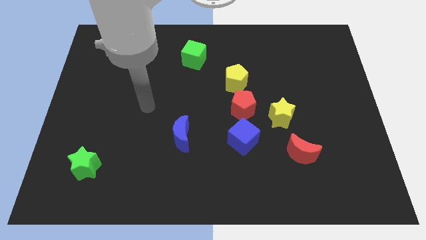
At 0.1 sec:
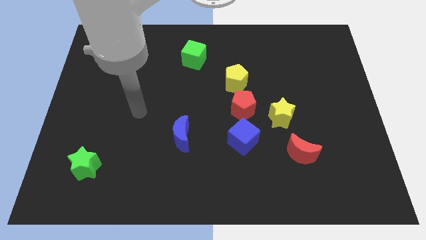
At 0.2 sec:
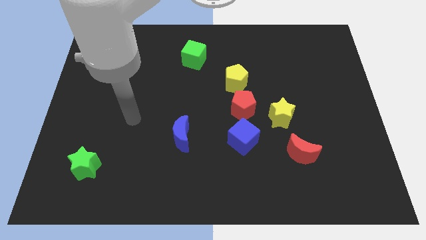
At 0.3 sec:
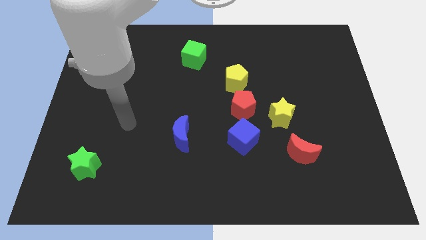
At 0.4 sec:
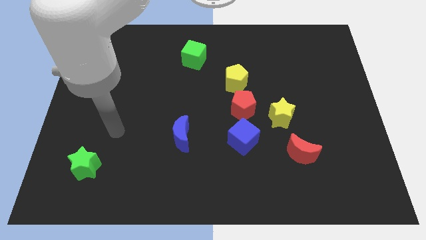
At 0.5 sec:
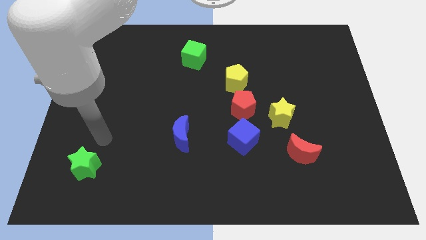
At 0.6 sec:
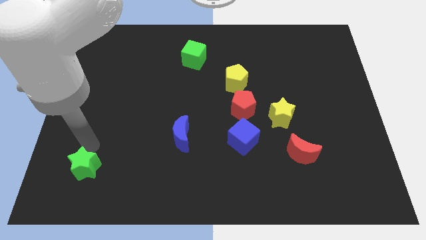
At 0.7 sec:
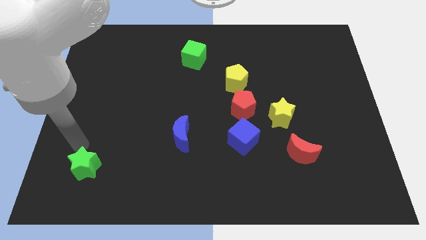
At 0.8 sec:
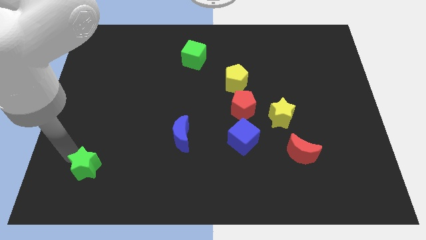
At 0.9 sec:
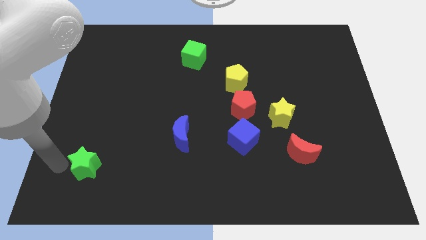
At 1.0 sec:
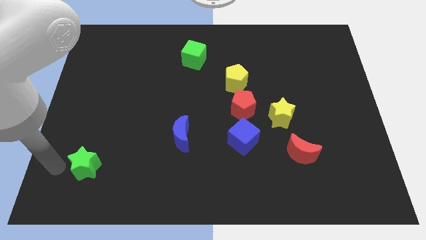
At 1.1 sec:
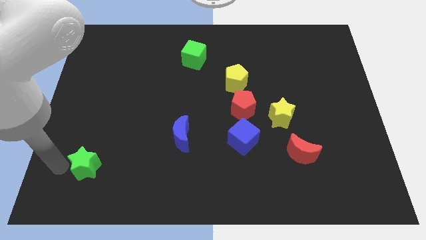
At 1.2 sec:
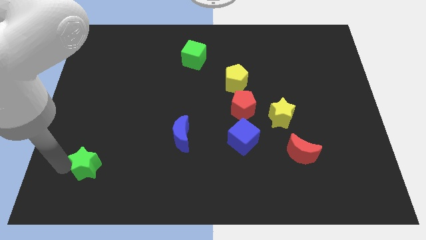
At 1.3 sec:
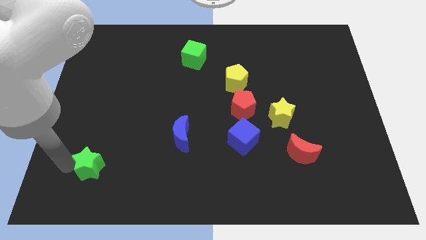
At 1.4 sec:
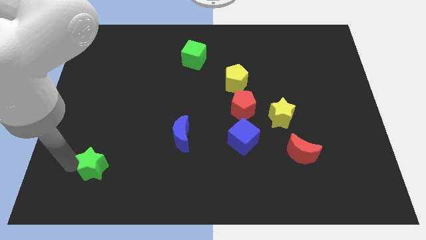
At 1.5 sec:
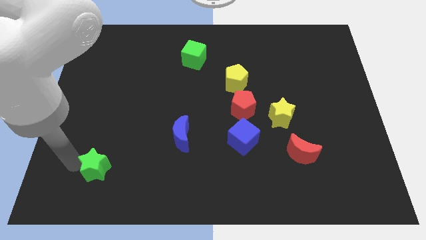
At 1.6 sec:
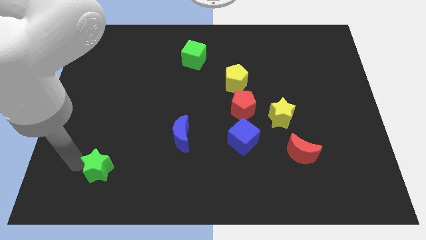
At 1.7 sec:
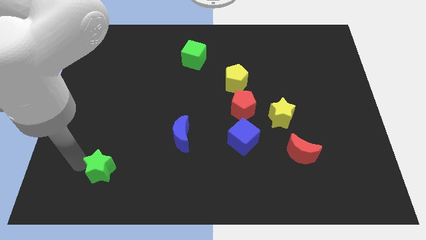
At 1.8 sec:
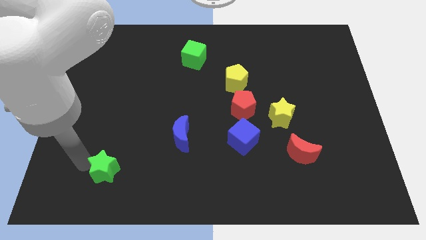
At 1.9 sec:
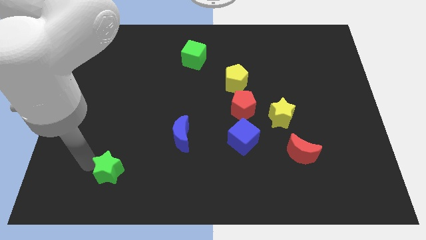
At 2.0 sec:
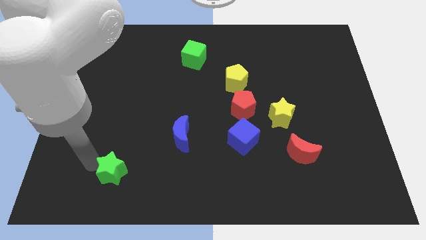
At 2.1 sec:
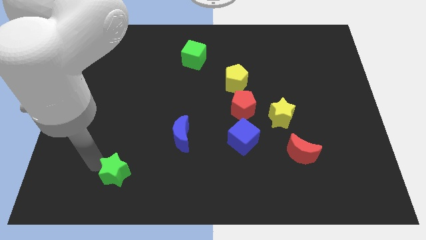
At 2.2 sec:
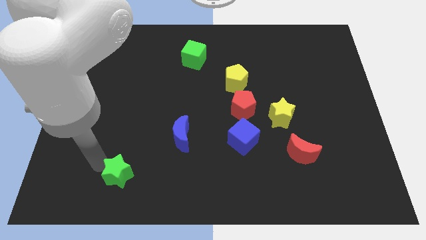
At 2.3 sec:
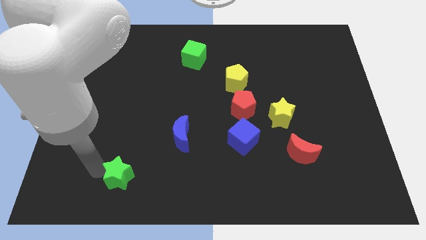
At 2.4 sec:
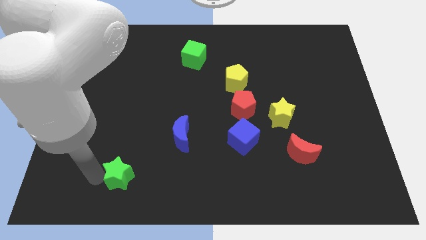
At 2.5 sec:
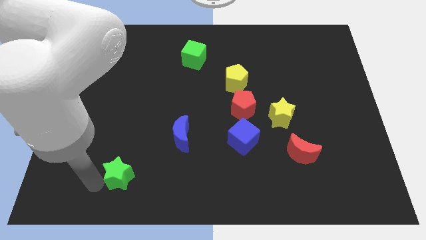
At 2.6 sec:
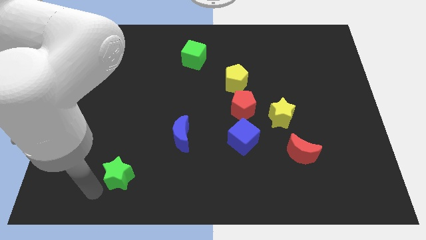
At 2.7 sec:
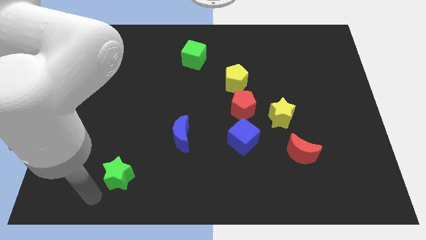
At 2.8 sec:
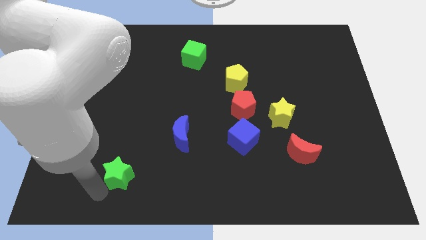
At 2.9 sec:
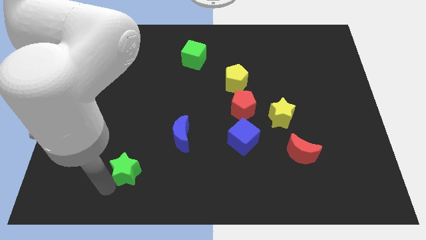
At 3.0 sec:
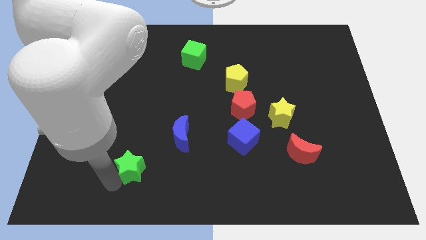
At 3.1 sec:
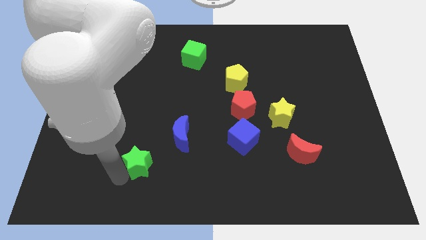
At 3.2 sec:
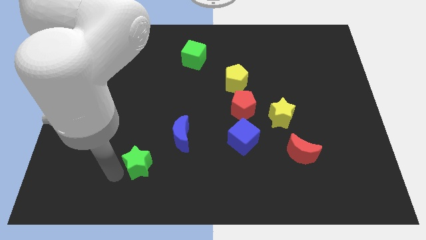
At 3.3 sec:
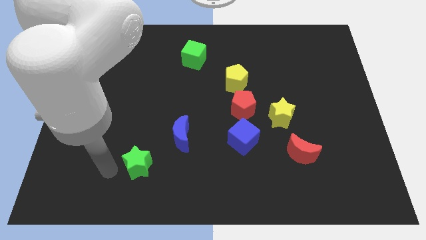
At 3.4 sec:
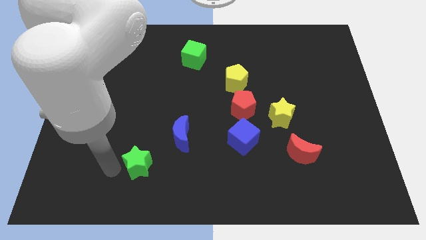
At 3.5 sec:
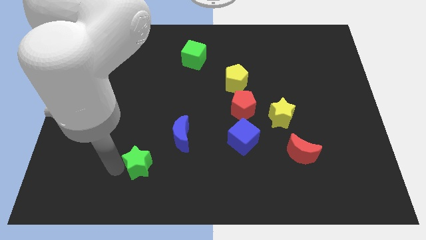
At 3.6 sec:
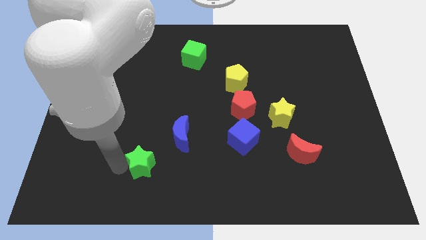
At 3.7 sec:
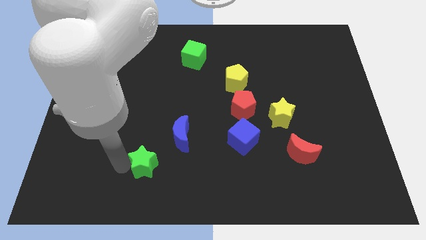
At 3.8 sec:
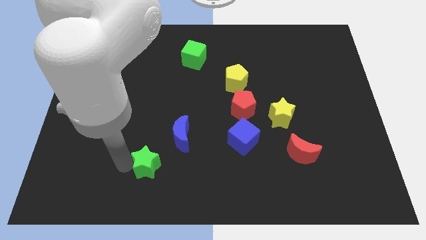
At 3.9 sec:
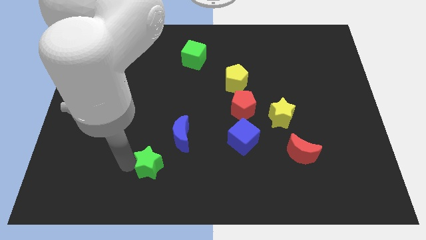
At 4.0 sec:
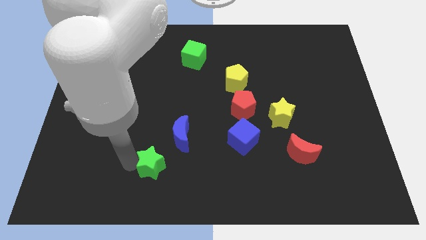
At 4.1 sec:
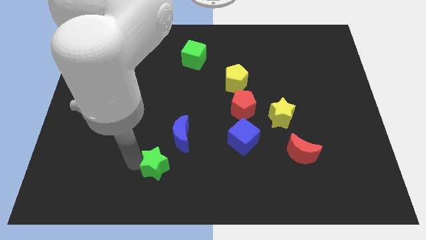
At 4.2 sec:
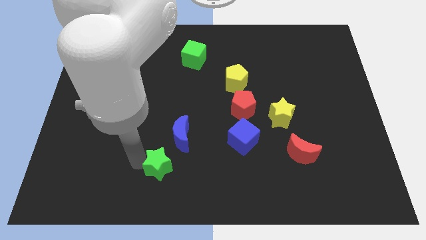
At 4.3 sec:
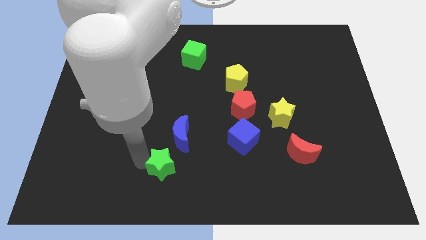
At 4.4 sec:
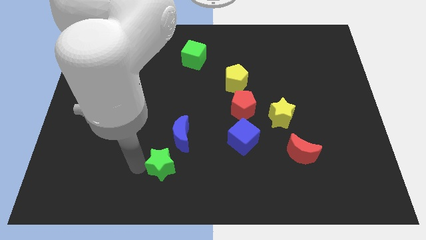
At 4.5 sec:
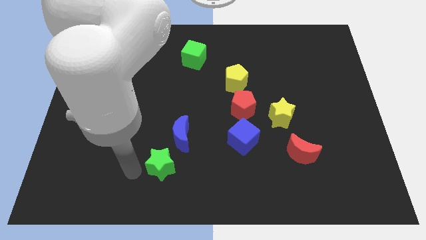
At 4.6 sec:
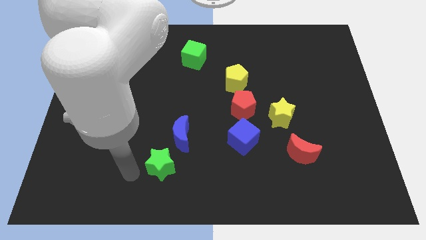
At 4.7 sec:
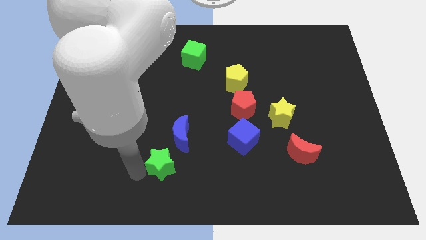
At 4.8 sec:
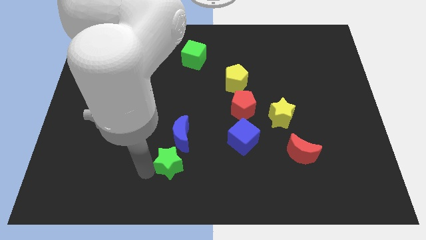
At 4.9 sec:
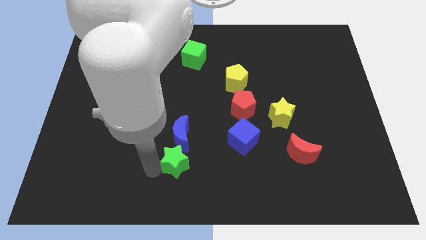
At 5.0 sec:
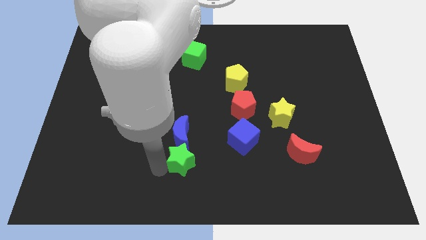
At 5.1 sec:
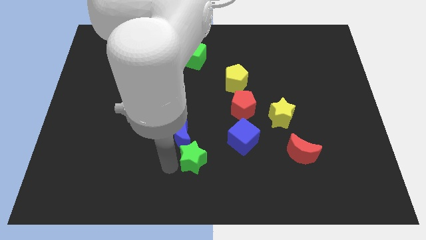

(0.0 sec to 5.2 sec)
slide the green star to the bottom left side of the blue cube

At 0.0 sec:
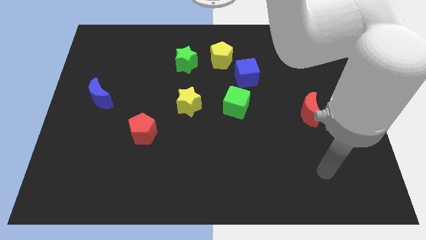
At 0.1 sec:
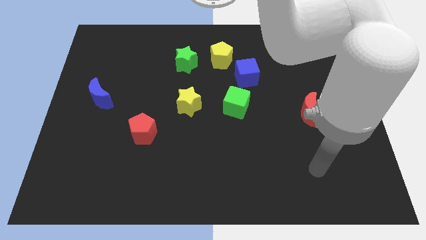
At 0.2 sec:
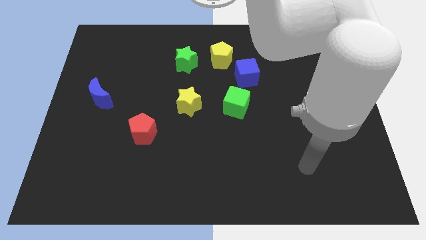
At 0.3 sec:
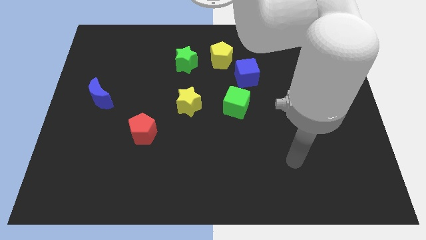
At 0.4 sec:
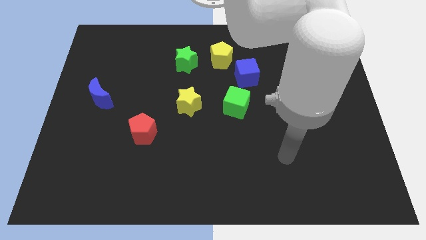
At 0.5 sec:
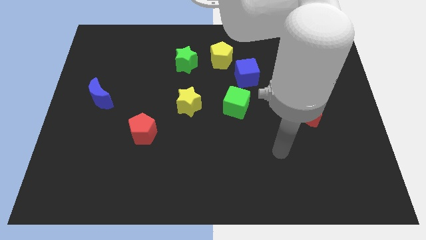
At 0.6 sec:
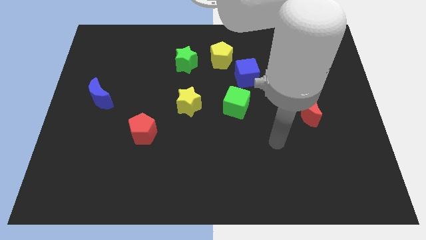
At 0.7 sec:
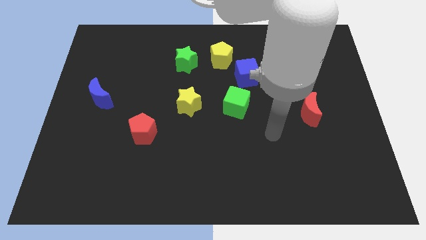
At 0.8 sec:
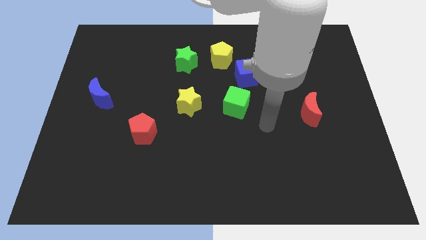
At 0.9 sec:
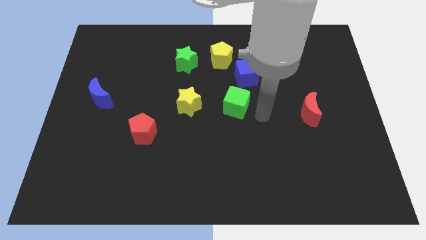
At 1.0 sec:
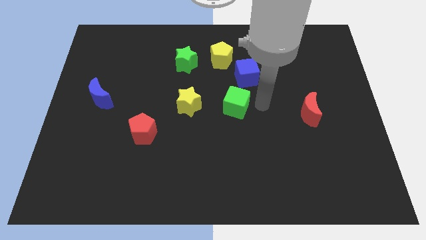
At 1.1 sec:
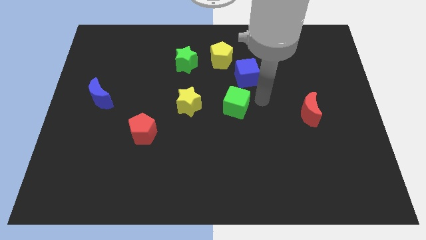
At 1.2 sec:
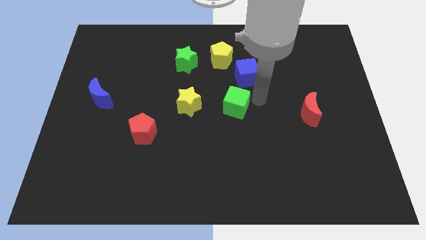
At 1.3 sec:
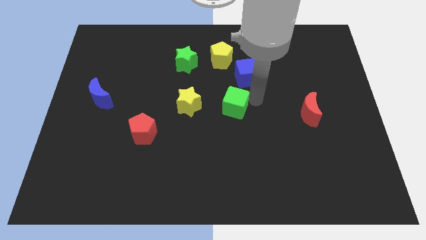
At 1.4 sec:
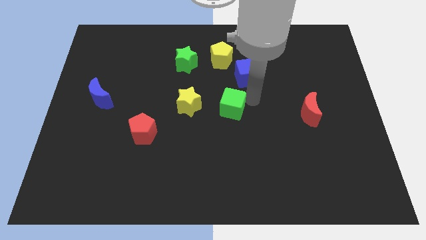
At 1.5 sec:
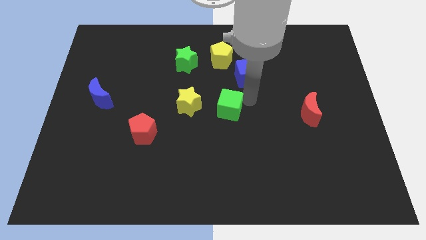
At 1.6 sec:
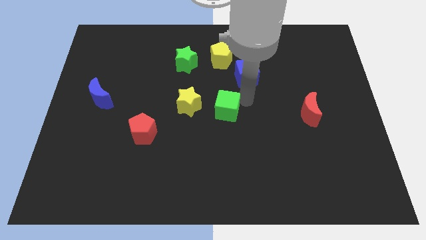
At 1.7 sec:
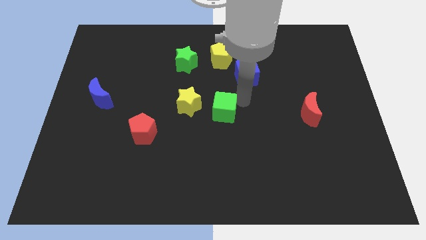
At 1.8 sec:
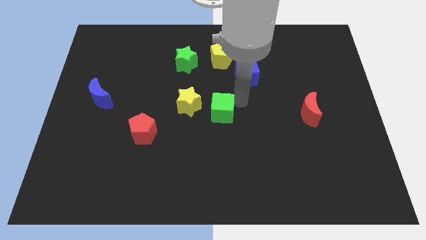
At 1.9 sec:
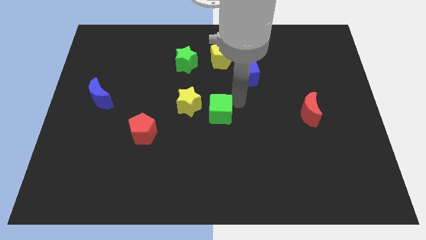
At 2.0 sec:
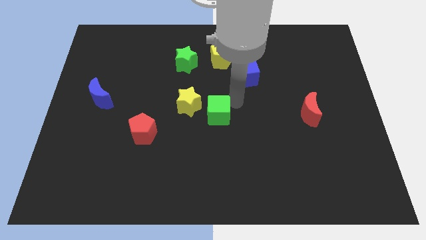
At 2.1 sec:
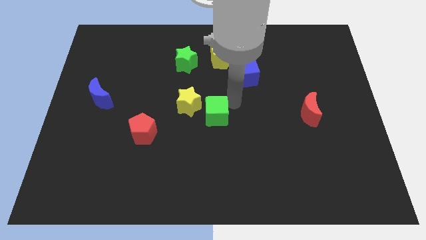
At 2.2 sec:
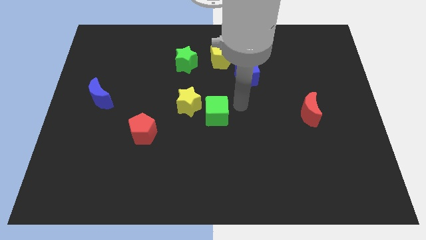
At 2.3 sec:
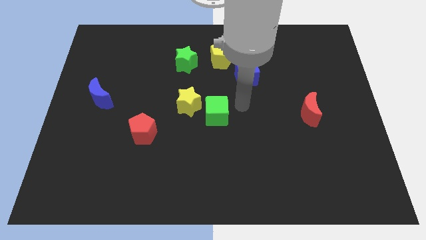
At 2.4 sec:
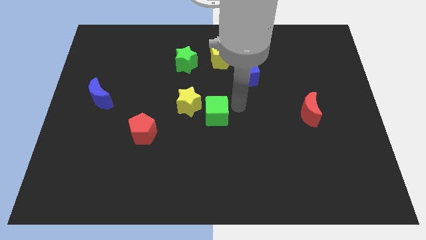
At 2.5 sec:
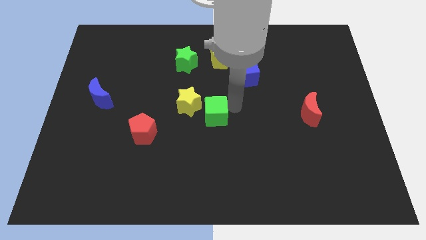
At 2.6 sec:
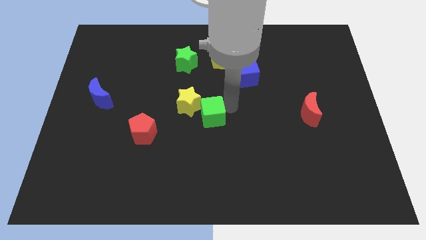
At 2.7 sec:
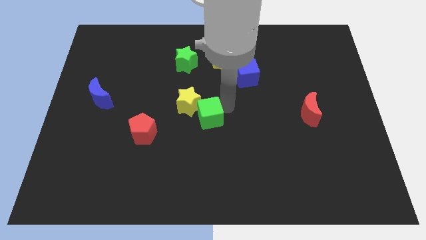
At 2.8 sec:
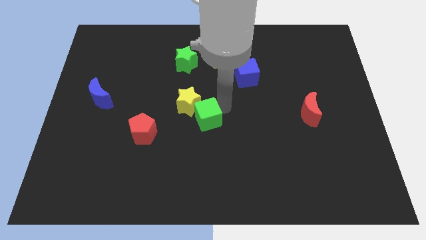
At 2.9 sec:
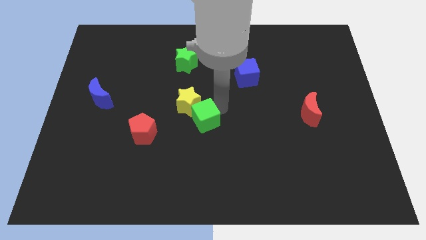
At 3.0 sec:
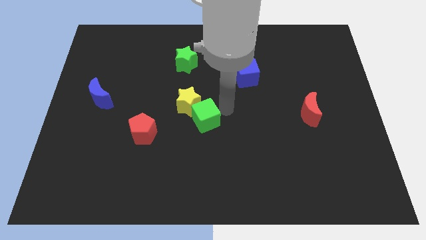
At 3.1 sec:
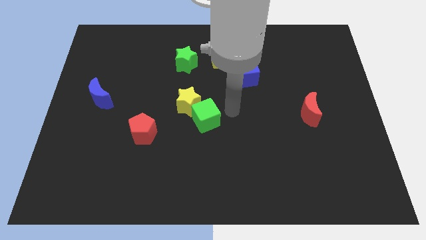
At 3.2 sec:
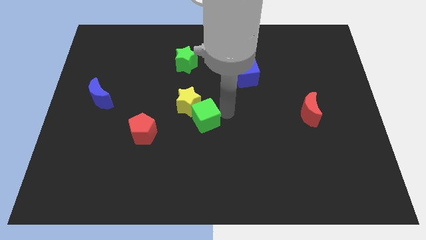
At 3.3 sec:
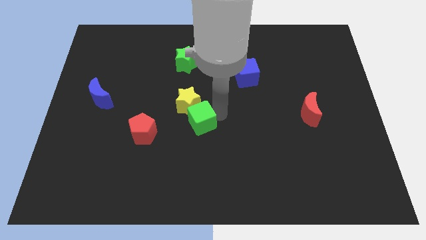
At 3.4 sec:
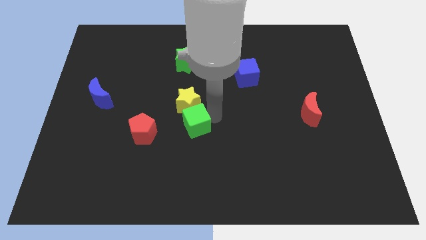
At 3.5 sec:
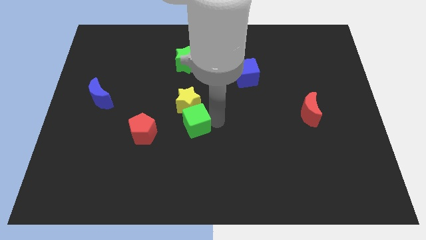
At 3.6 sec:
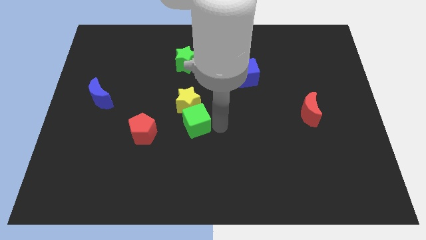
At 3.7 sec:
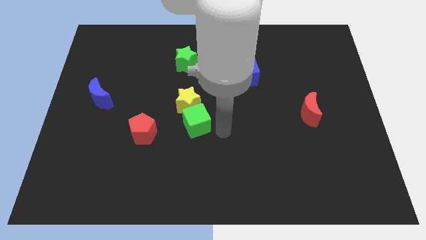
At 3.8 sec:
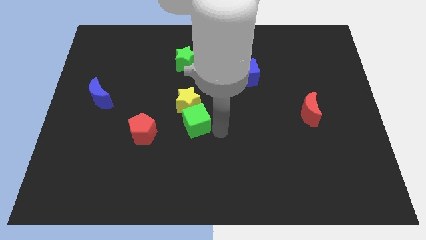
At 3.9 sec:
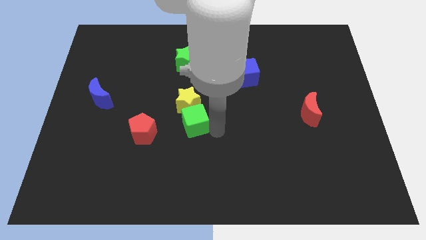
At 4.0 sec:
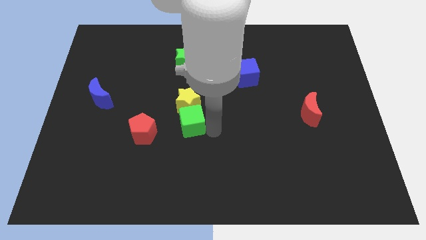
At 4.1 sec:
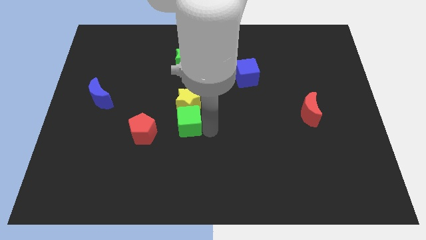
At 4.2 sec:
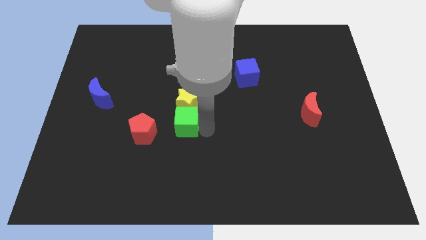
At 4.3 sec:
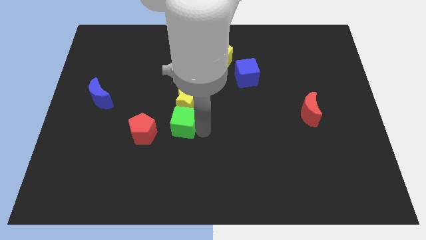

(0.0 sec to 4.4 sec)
put the green cube diagonally up and to the right of the red pentagon
